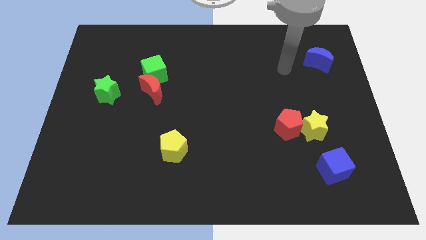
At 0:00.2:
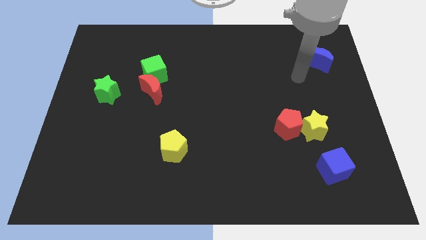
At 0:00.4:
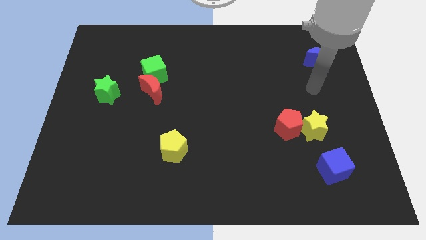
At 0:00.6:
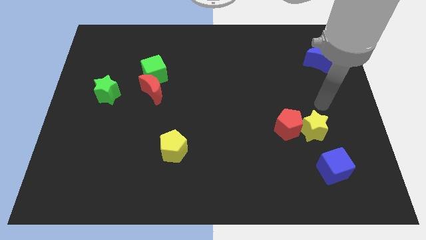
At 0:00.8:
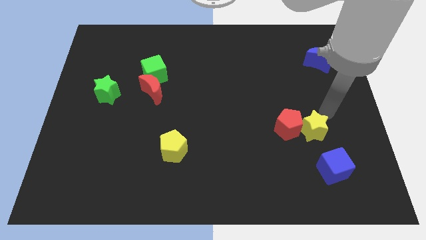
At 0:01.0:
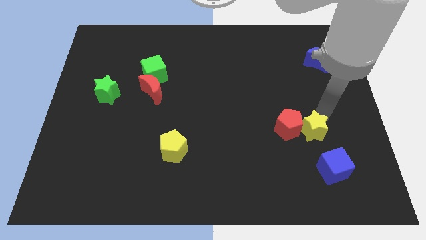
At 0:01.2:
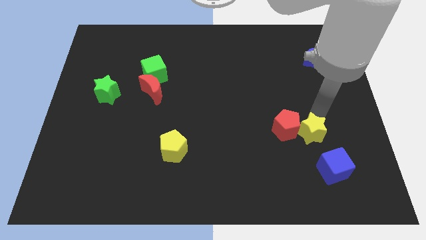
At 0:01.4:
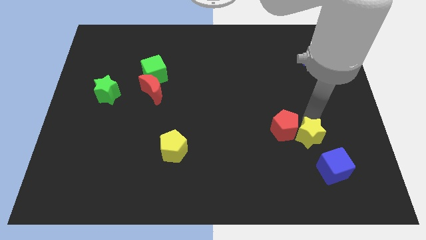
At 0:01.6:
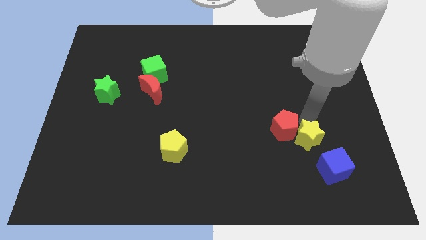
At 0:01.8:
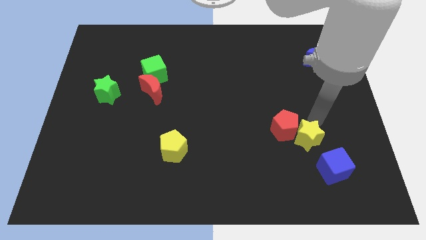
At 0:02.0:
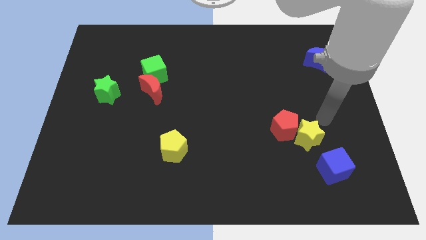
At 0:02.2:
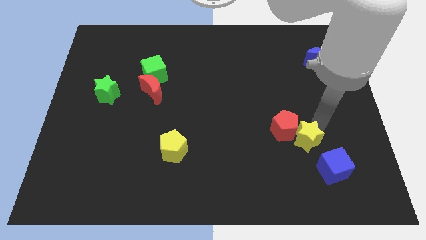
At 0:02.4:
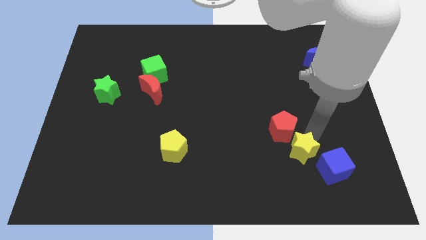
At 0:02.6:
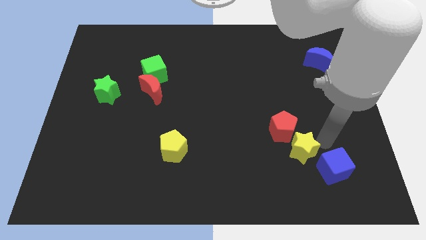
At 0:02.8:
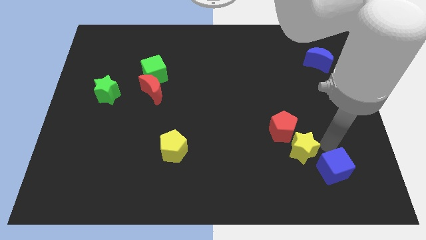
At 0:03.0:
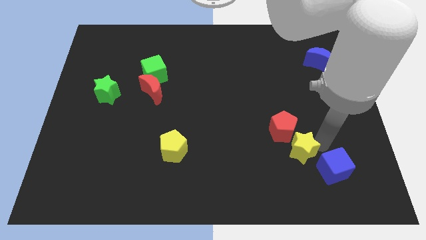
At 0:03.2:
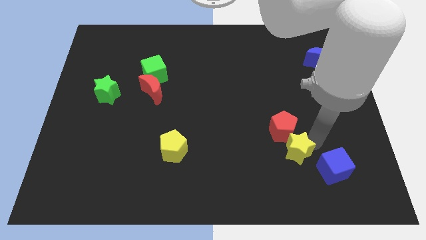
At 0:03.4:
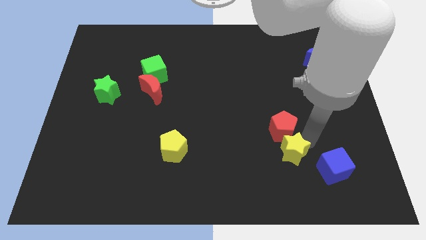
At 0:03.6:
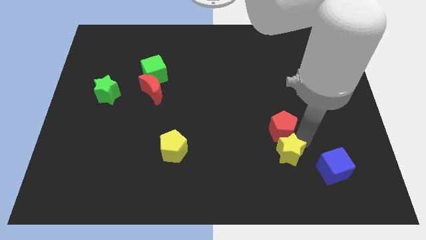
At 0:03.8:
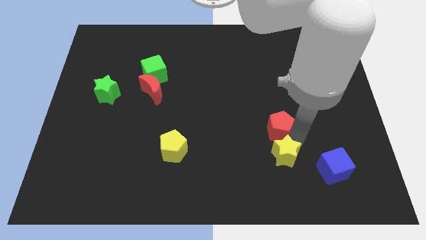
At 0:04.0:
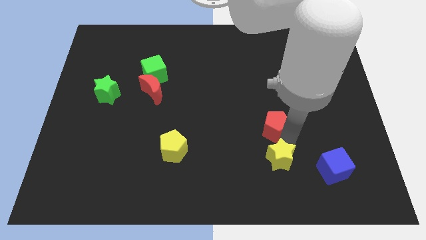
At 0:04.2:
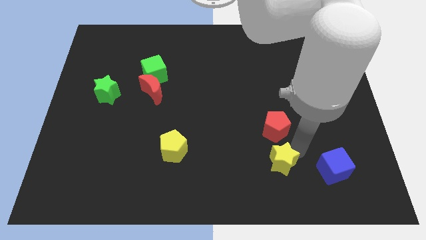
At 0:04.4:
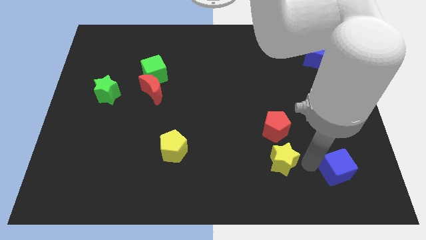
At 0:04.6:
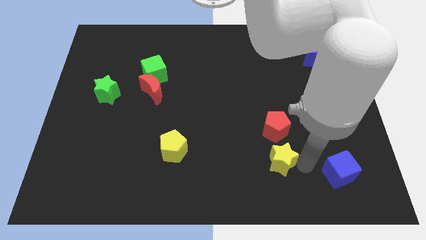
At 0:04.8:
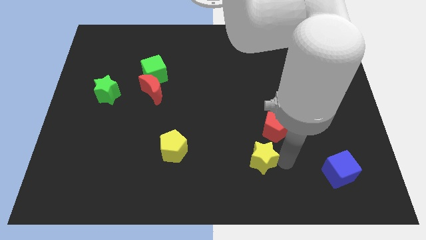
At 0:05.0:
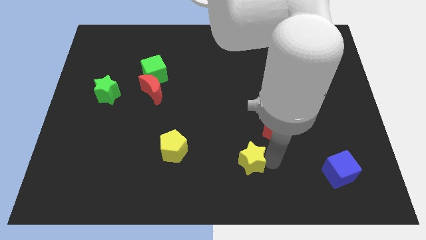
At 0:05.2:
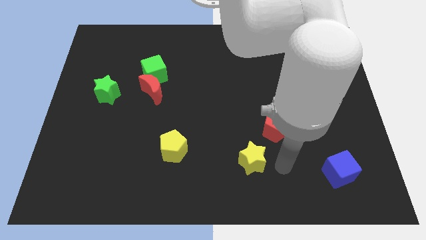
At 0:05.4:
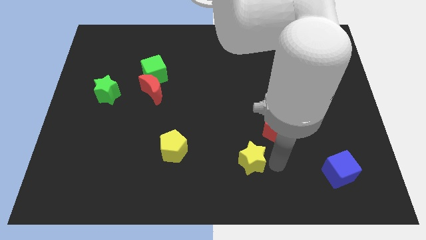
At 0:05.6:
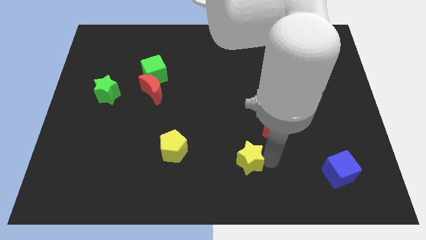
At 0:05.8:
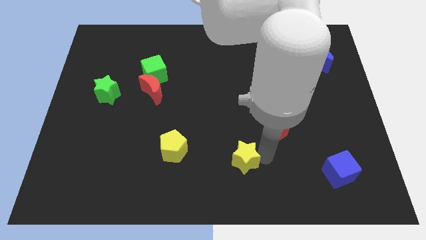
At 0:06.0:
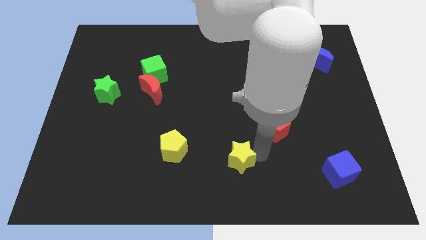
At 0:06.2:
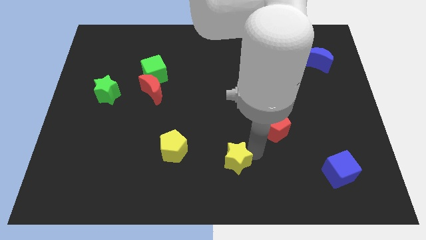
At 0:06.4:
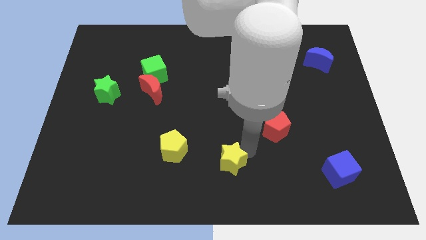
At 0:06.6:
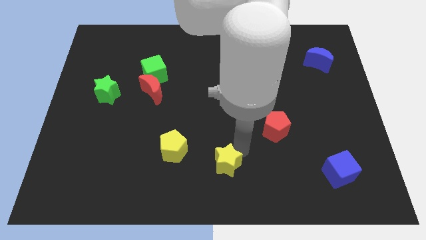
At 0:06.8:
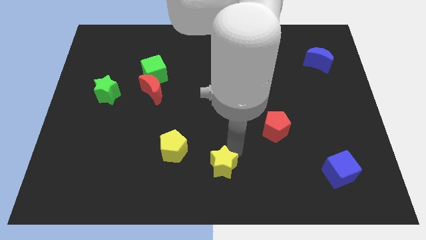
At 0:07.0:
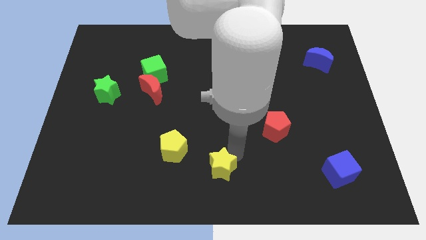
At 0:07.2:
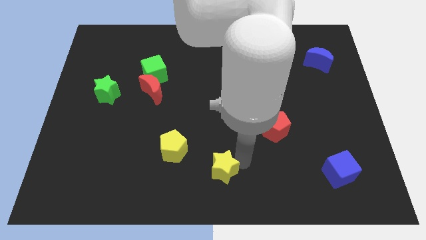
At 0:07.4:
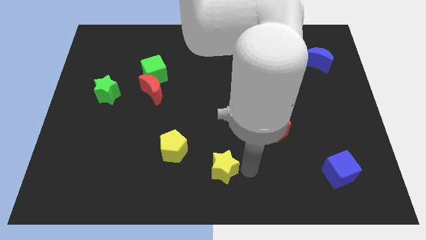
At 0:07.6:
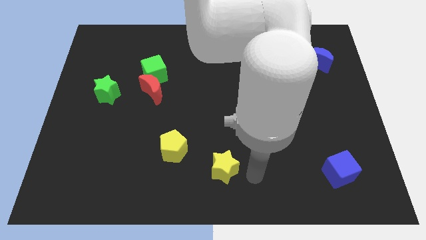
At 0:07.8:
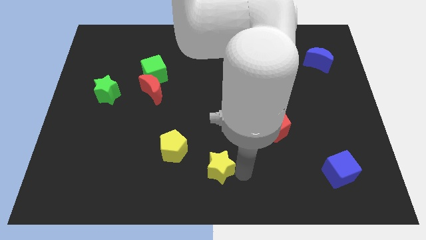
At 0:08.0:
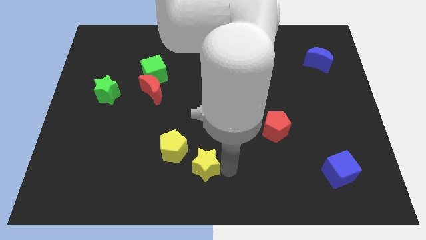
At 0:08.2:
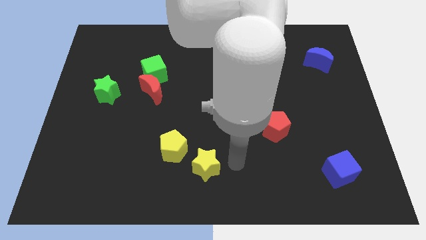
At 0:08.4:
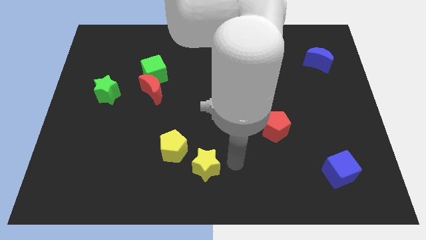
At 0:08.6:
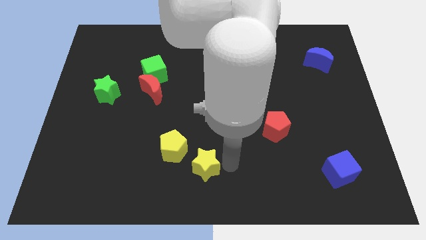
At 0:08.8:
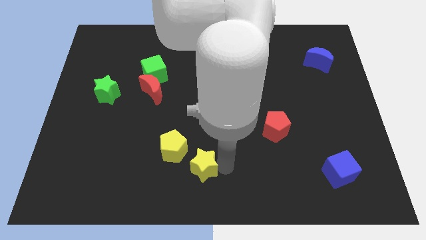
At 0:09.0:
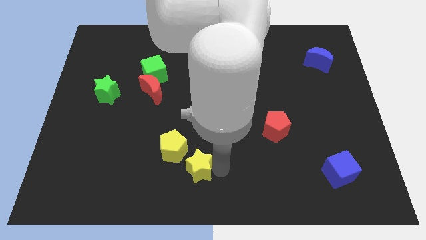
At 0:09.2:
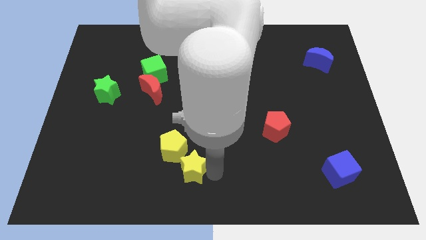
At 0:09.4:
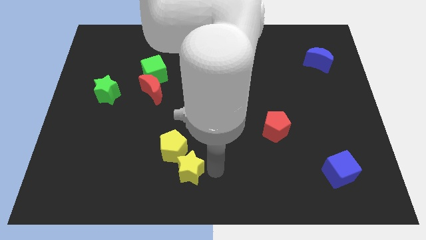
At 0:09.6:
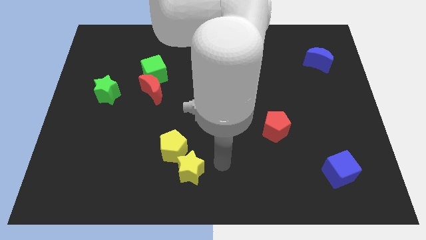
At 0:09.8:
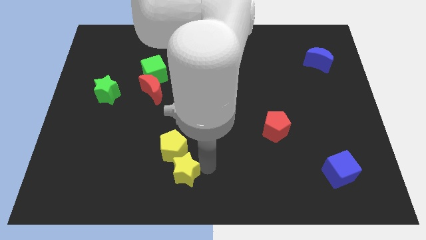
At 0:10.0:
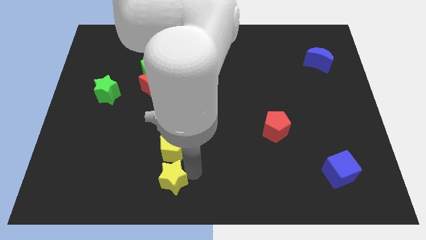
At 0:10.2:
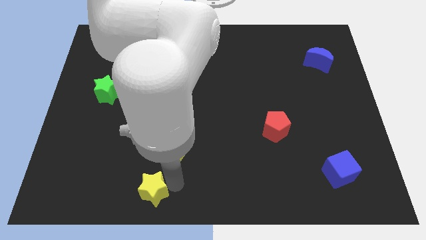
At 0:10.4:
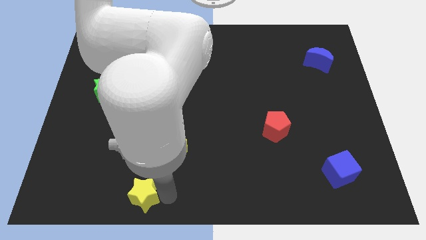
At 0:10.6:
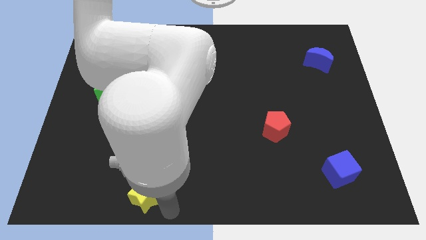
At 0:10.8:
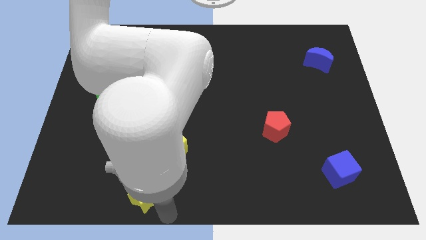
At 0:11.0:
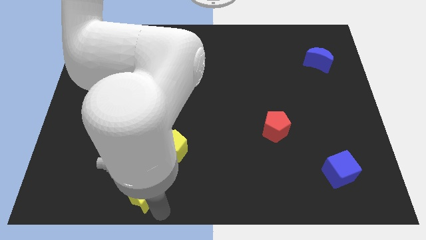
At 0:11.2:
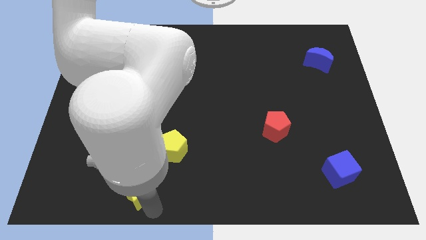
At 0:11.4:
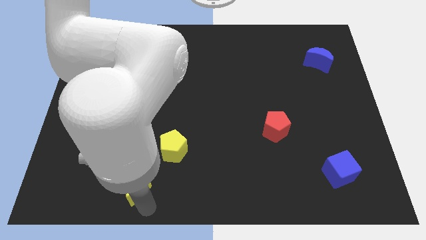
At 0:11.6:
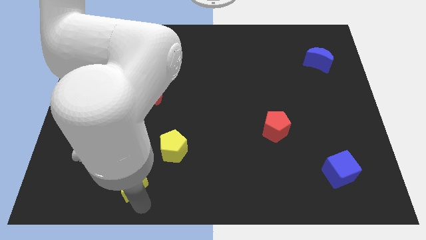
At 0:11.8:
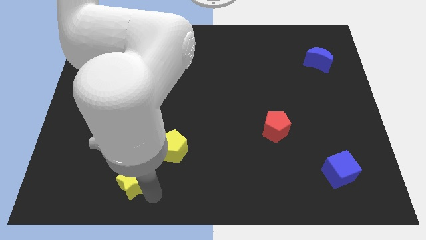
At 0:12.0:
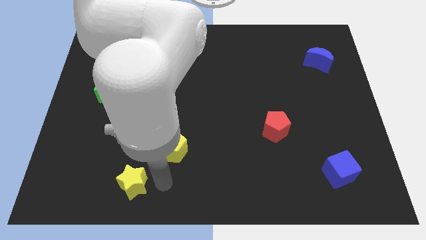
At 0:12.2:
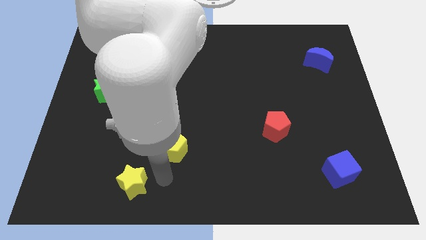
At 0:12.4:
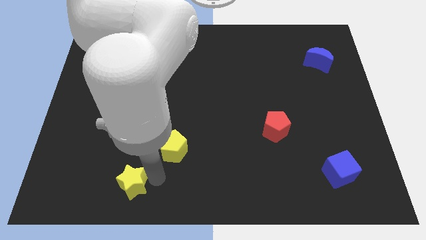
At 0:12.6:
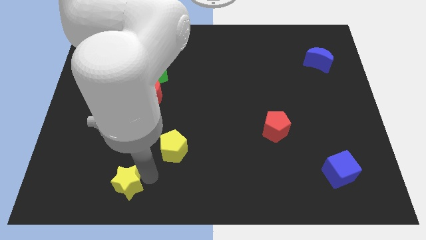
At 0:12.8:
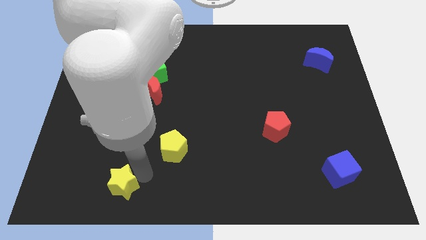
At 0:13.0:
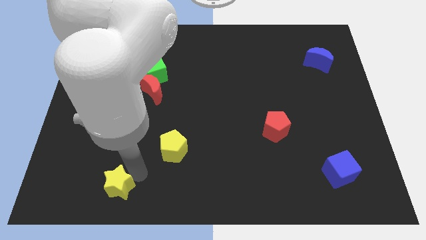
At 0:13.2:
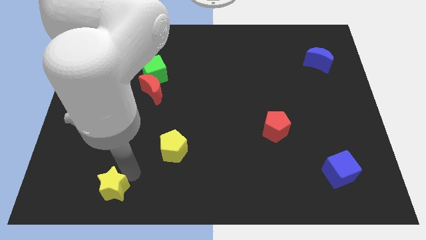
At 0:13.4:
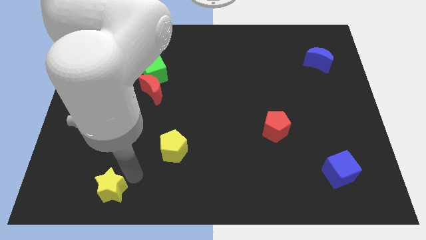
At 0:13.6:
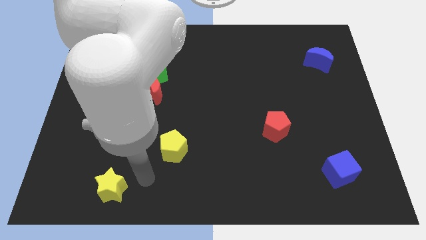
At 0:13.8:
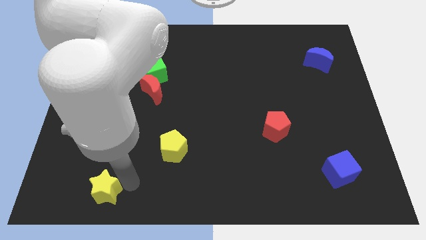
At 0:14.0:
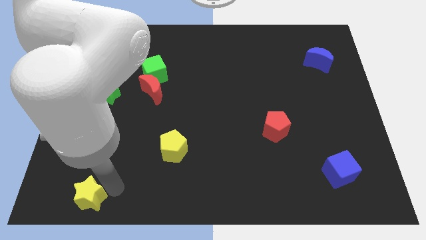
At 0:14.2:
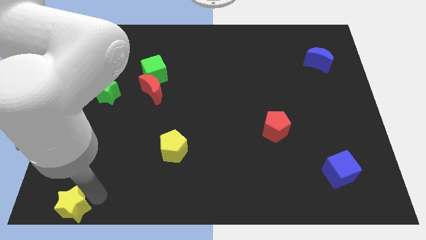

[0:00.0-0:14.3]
put the yellow star to the bottom left
